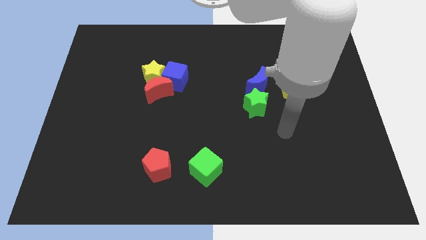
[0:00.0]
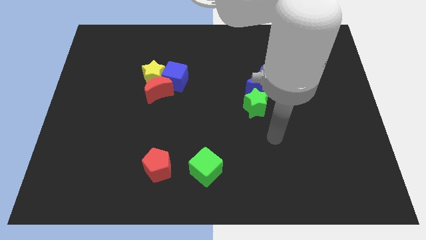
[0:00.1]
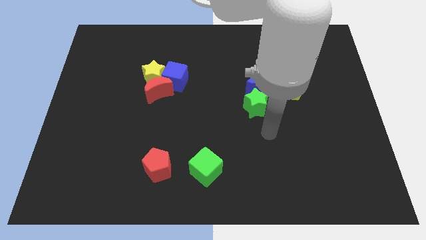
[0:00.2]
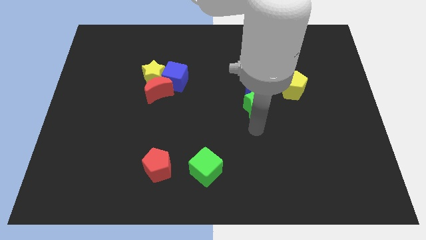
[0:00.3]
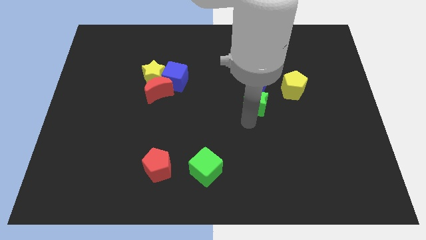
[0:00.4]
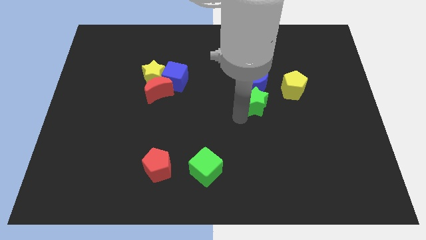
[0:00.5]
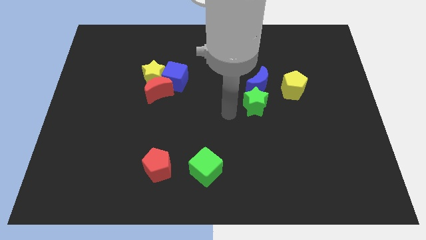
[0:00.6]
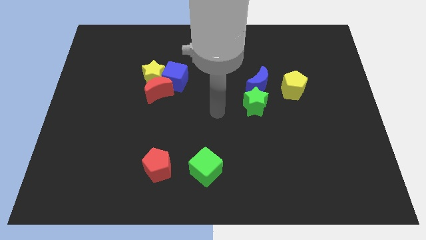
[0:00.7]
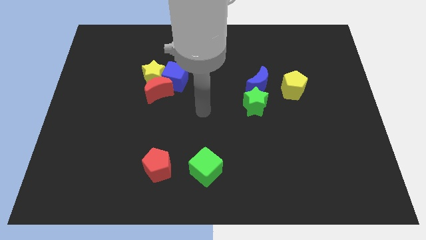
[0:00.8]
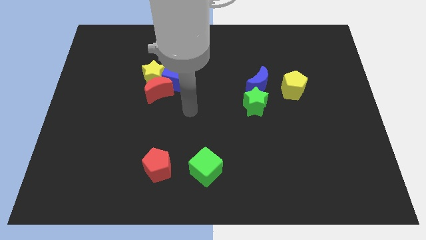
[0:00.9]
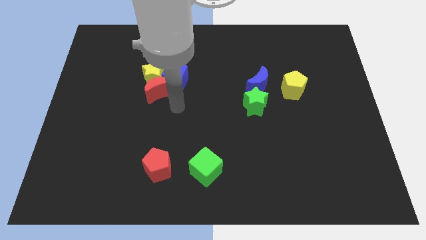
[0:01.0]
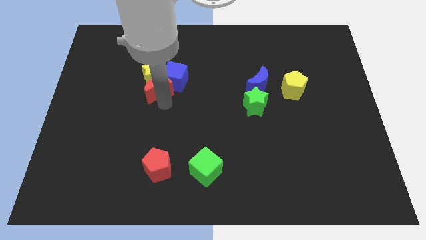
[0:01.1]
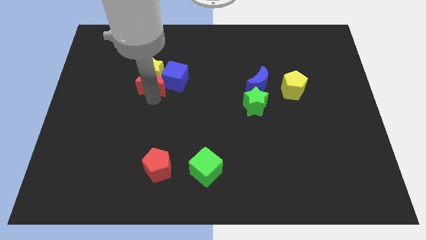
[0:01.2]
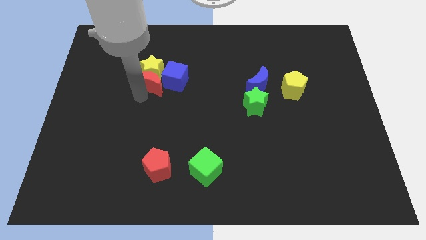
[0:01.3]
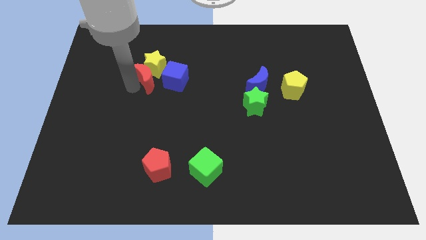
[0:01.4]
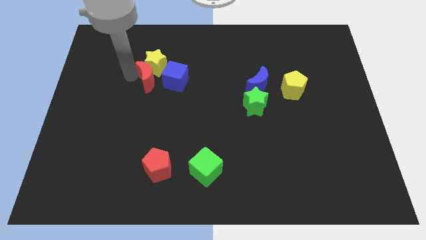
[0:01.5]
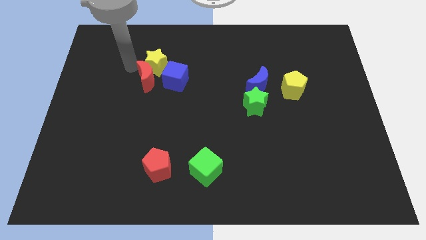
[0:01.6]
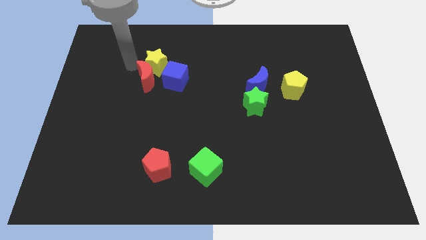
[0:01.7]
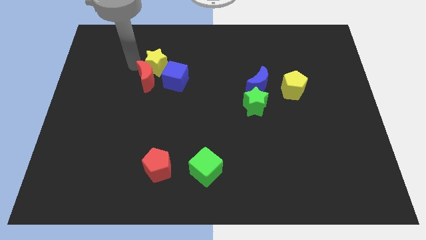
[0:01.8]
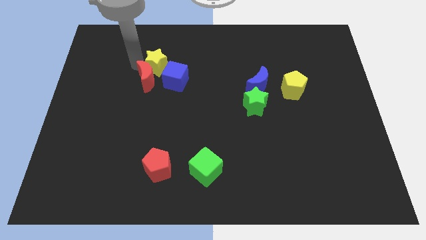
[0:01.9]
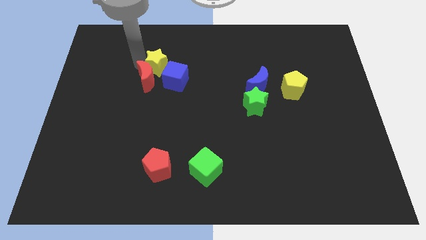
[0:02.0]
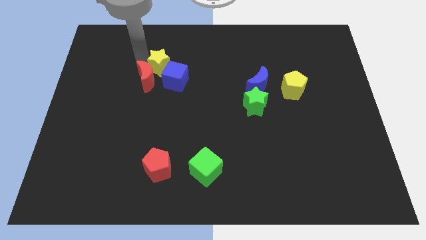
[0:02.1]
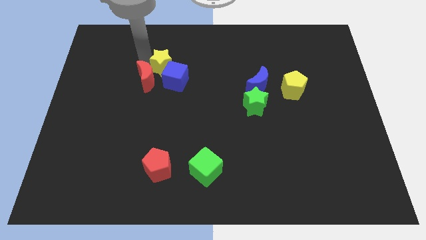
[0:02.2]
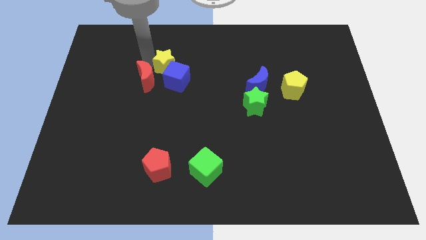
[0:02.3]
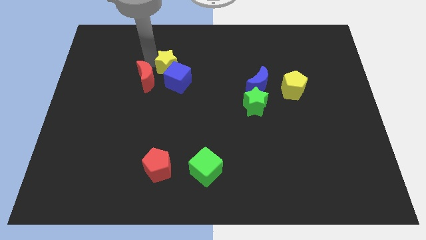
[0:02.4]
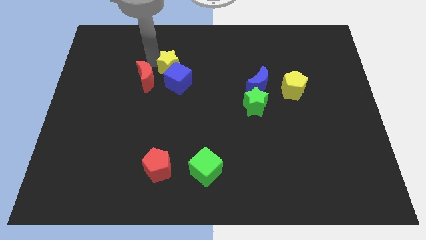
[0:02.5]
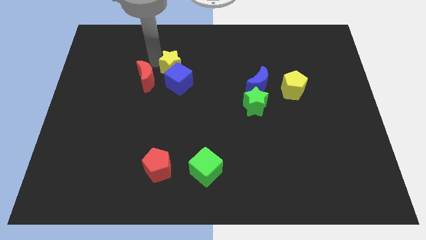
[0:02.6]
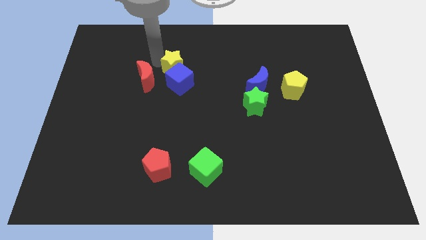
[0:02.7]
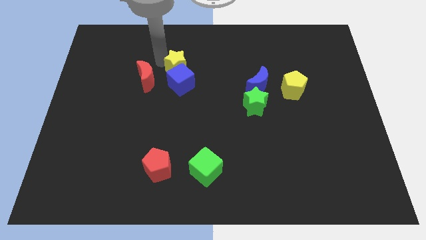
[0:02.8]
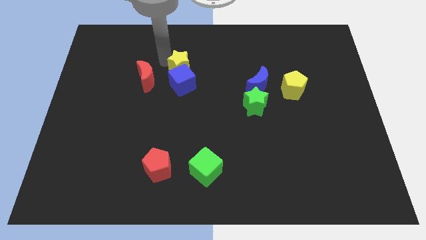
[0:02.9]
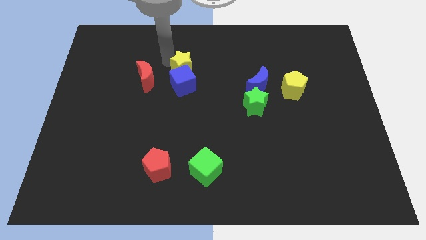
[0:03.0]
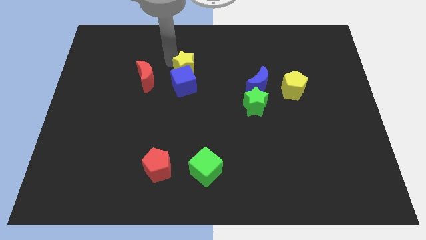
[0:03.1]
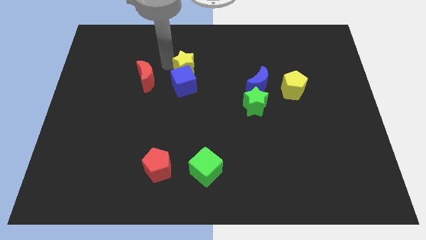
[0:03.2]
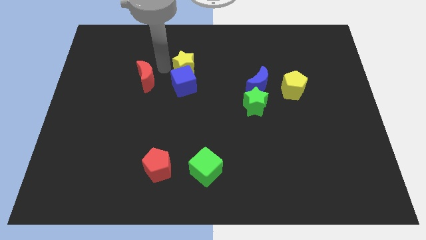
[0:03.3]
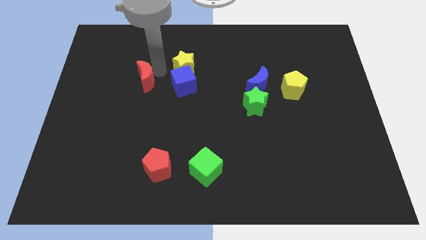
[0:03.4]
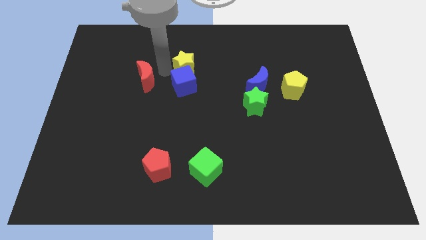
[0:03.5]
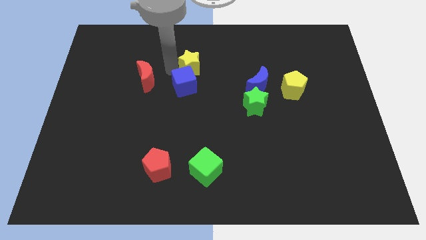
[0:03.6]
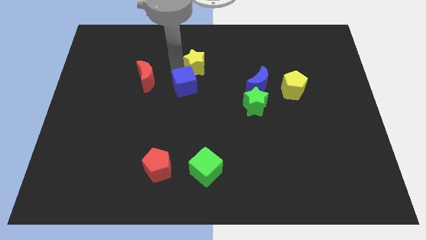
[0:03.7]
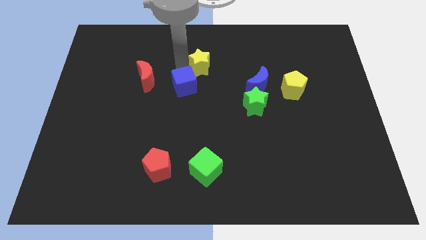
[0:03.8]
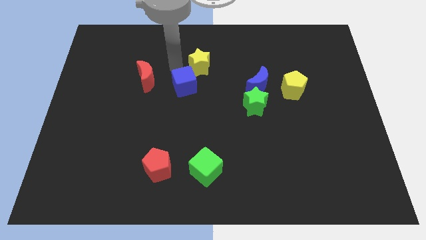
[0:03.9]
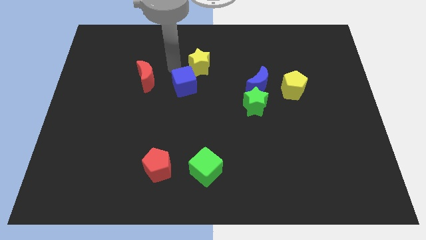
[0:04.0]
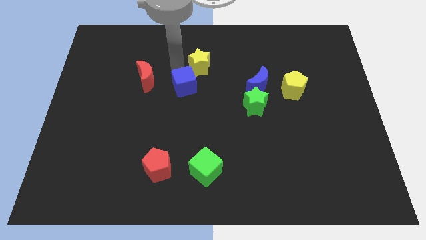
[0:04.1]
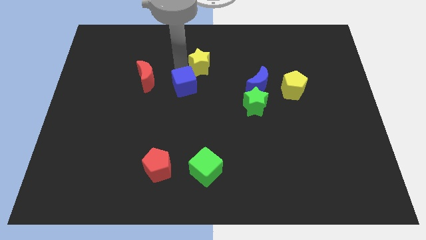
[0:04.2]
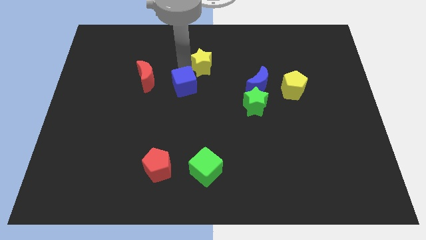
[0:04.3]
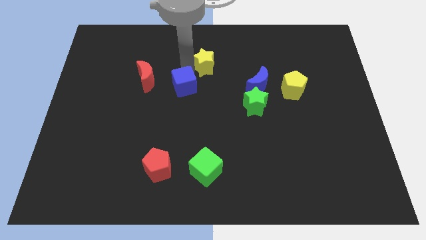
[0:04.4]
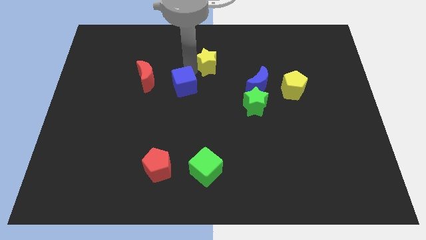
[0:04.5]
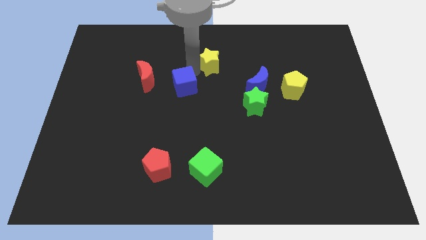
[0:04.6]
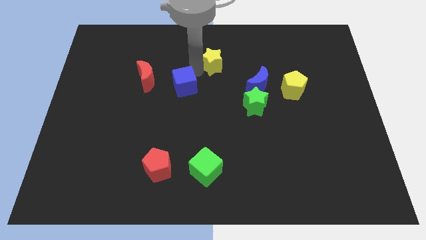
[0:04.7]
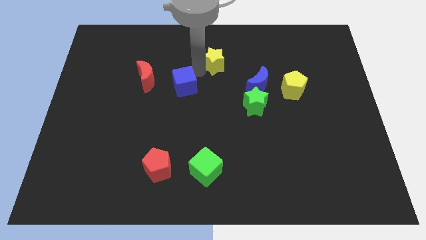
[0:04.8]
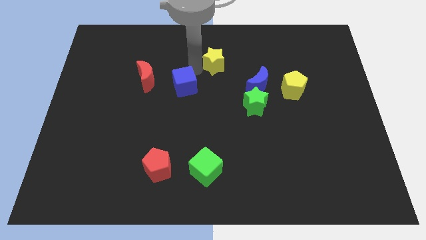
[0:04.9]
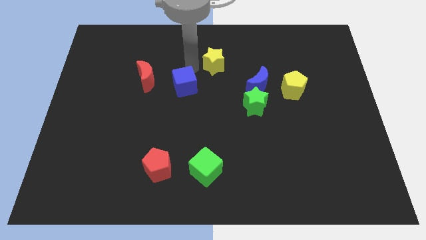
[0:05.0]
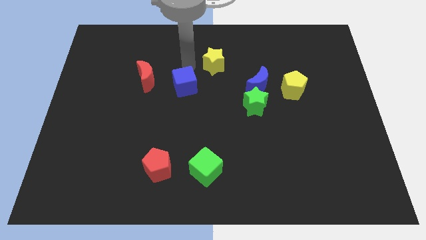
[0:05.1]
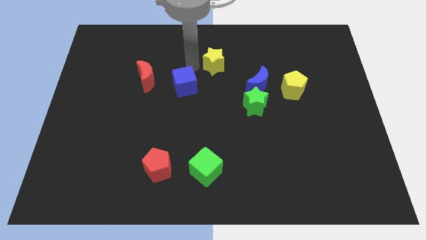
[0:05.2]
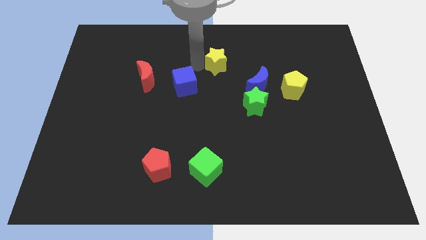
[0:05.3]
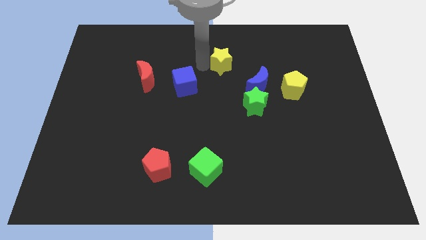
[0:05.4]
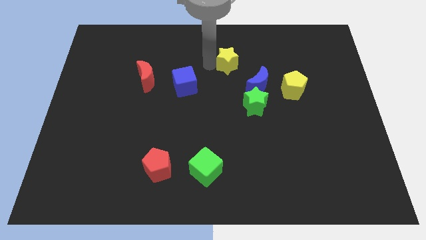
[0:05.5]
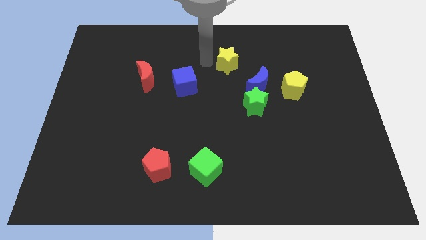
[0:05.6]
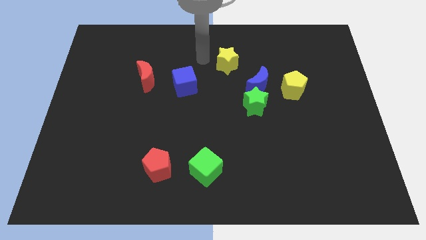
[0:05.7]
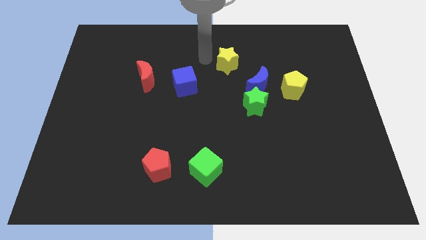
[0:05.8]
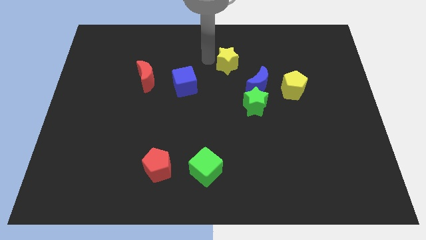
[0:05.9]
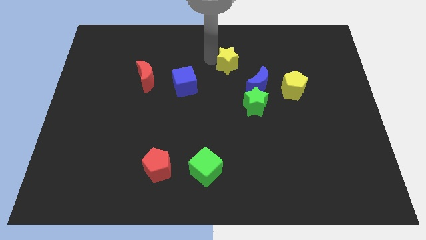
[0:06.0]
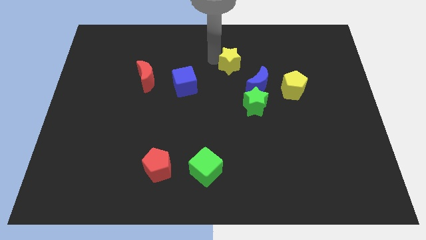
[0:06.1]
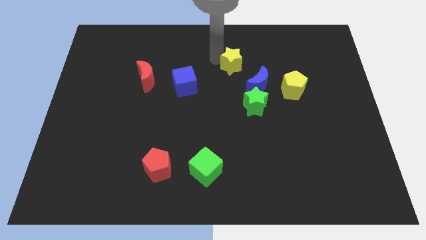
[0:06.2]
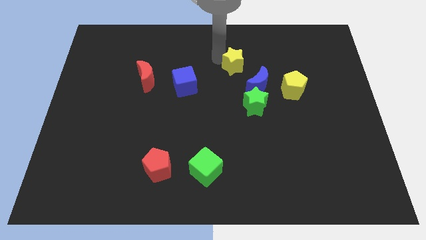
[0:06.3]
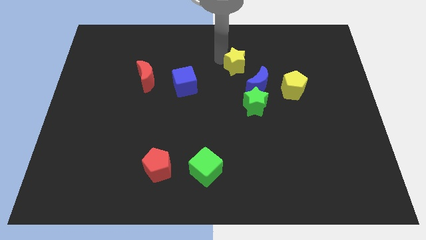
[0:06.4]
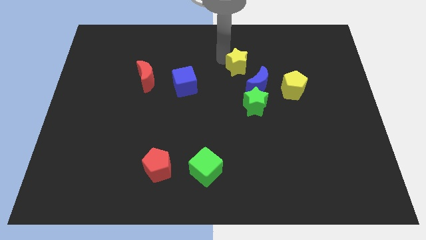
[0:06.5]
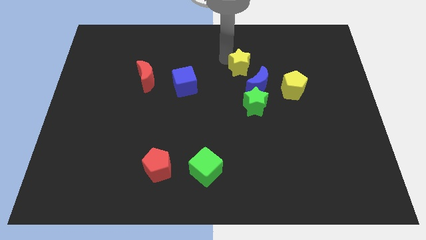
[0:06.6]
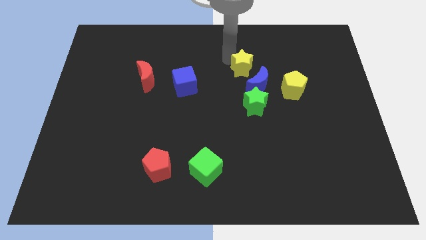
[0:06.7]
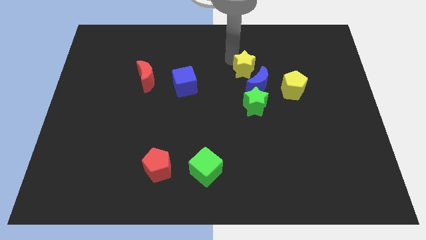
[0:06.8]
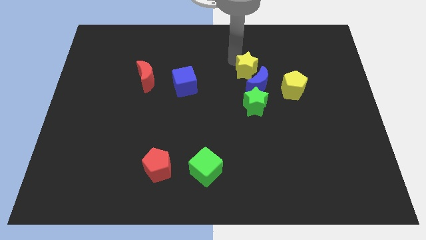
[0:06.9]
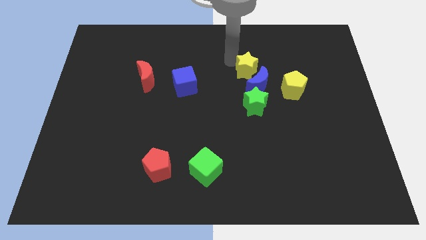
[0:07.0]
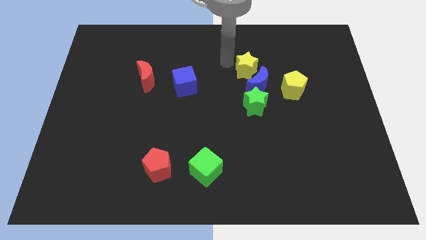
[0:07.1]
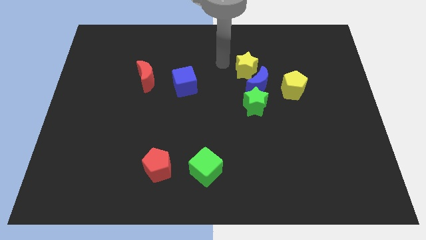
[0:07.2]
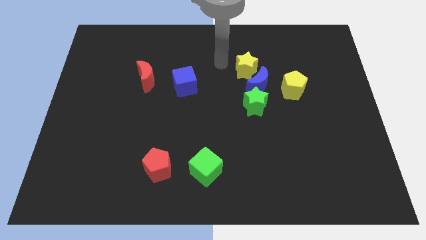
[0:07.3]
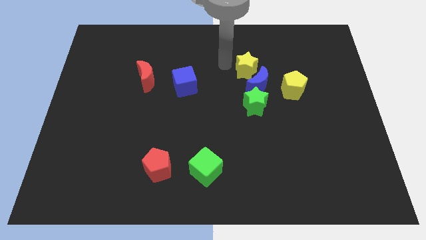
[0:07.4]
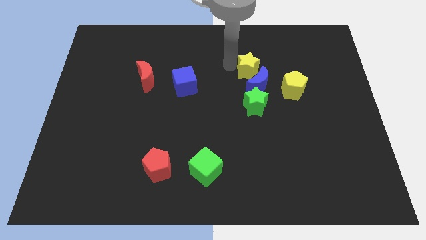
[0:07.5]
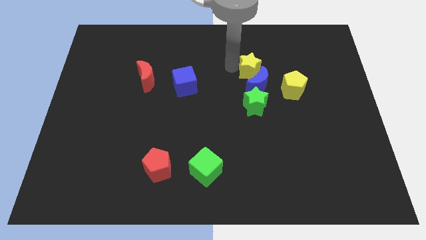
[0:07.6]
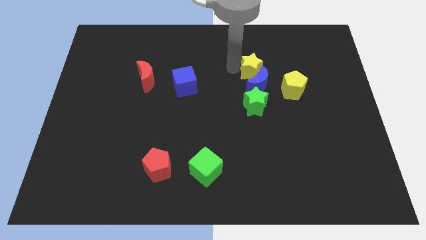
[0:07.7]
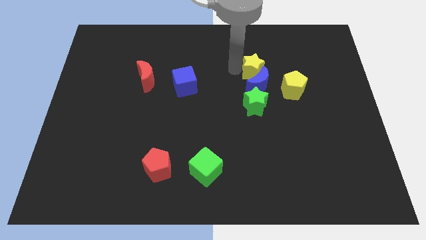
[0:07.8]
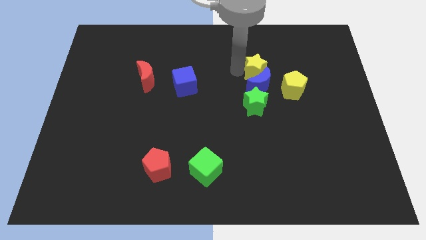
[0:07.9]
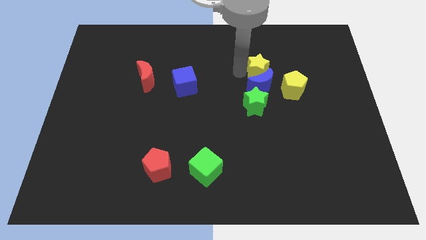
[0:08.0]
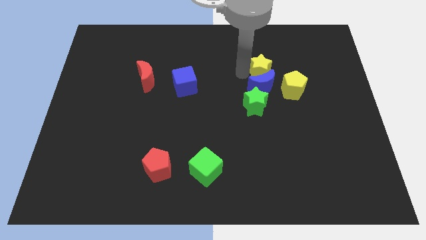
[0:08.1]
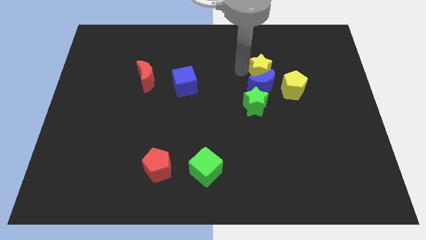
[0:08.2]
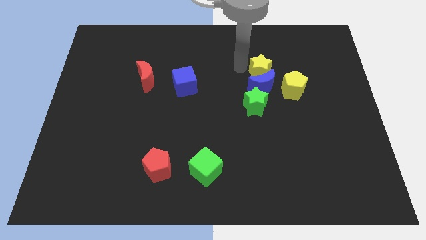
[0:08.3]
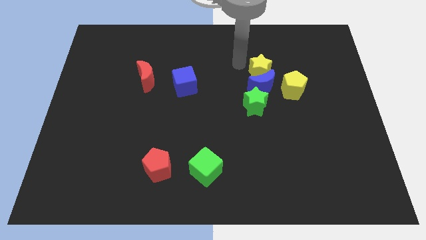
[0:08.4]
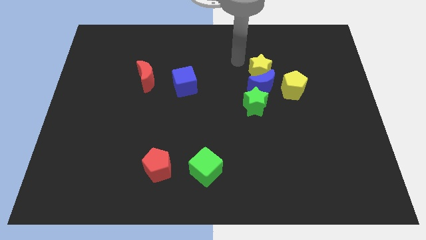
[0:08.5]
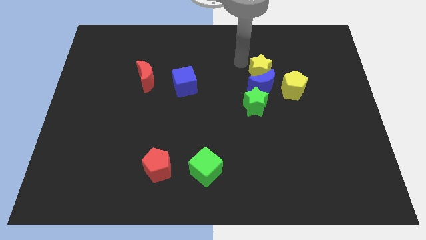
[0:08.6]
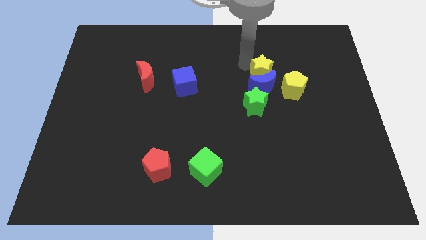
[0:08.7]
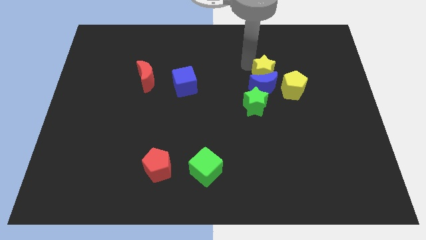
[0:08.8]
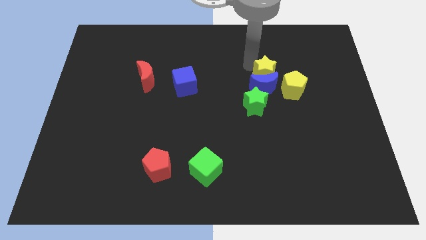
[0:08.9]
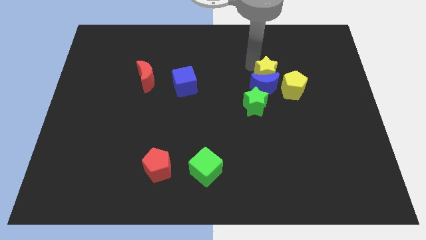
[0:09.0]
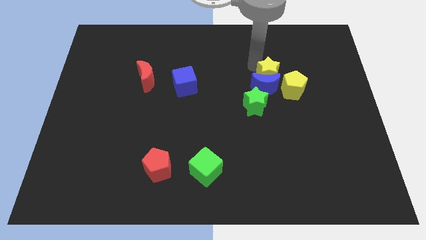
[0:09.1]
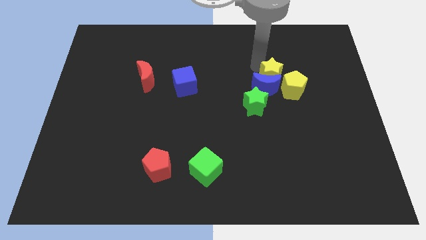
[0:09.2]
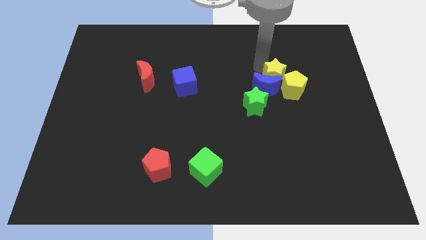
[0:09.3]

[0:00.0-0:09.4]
move the yellow star close to the yellow pentagon
